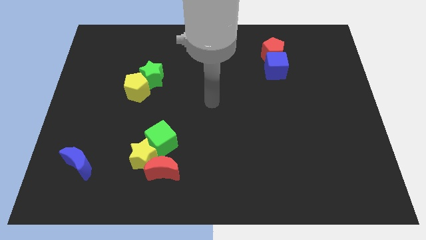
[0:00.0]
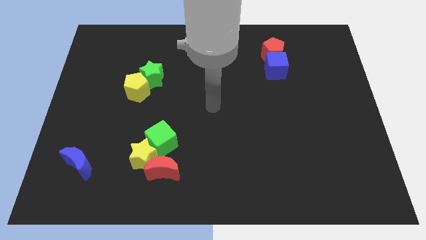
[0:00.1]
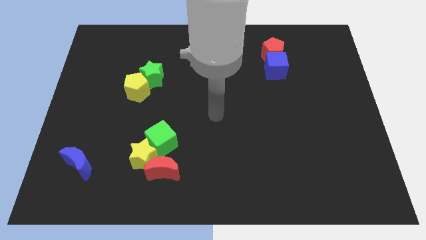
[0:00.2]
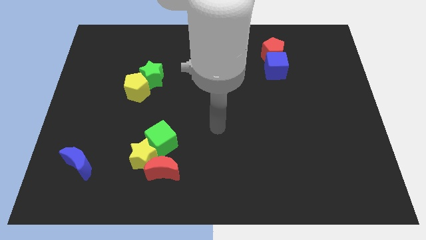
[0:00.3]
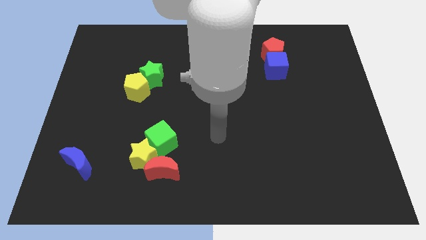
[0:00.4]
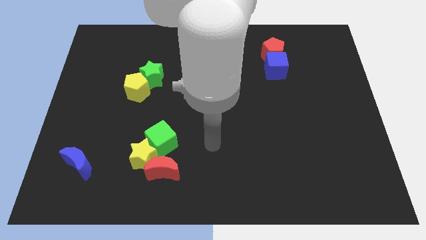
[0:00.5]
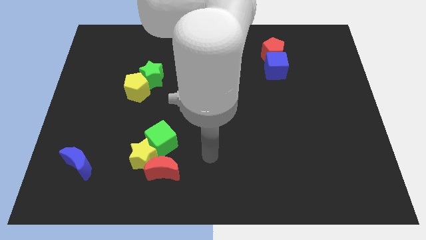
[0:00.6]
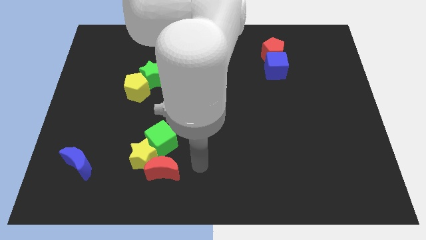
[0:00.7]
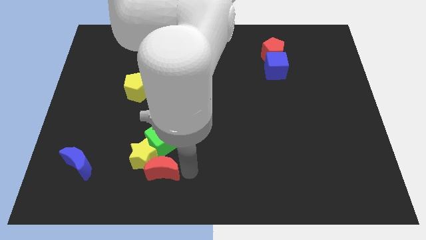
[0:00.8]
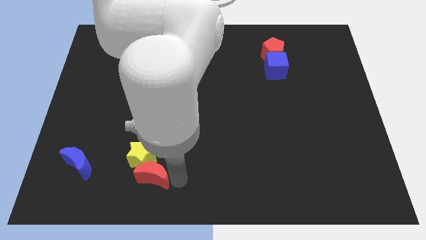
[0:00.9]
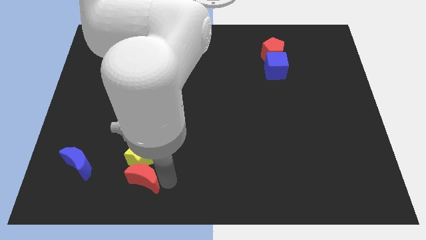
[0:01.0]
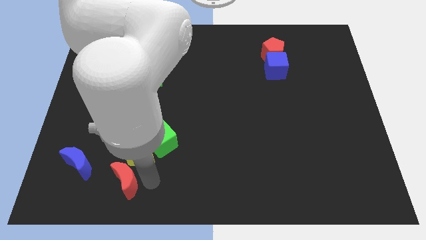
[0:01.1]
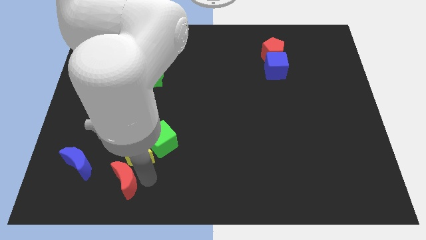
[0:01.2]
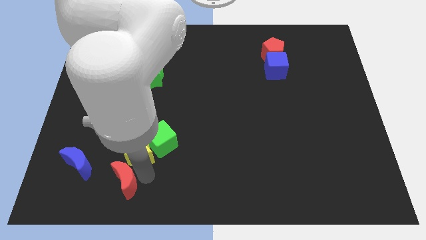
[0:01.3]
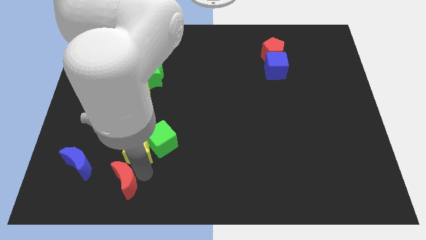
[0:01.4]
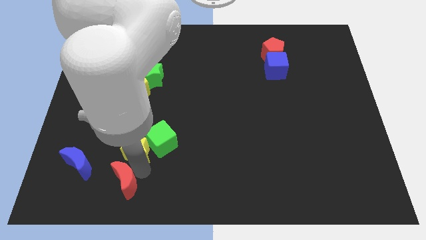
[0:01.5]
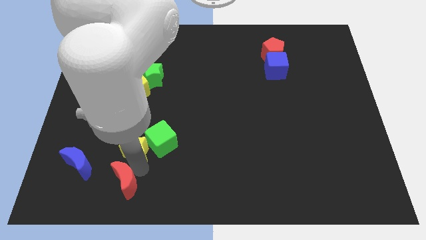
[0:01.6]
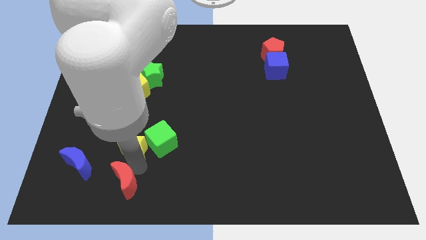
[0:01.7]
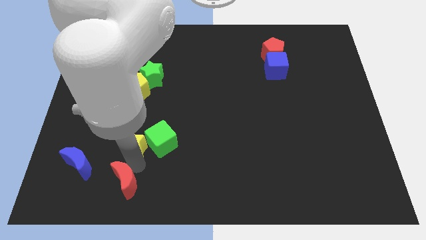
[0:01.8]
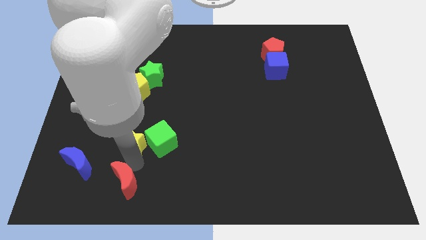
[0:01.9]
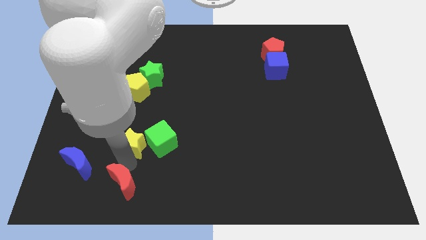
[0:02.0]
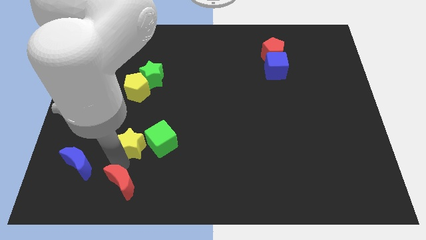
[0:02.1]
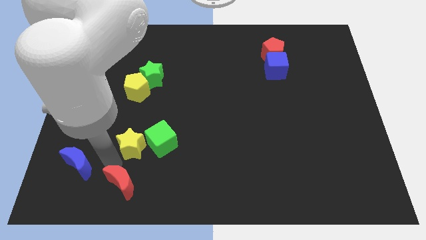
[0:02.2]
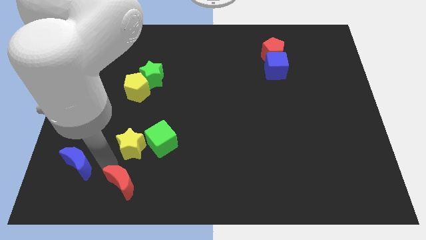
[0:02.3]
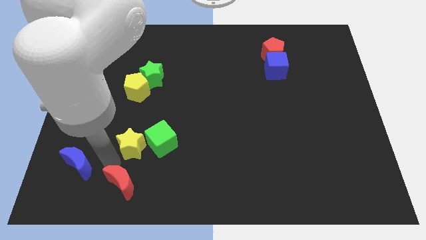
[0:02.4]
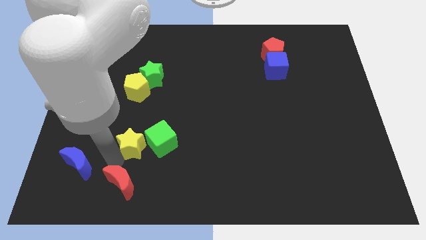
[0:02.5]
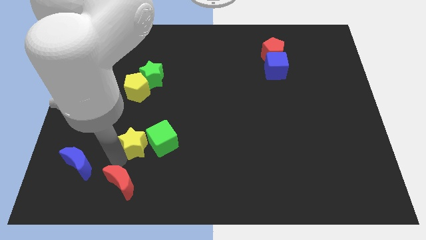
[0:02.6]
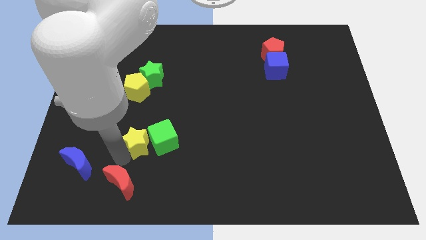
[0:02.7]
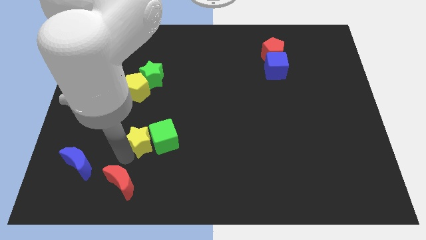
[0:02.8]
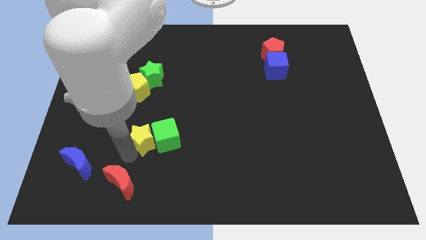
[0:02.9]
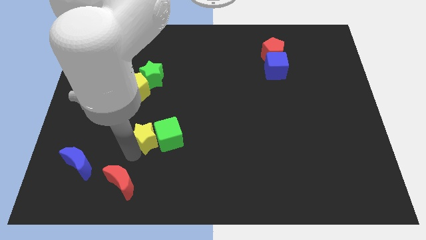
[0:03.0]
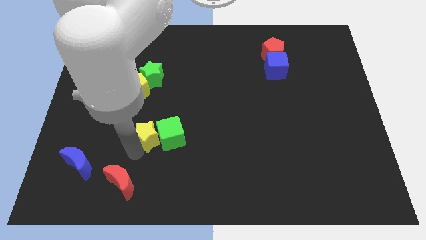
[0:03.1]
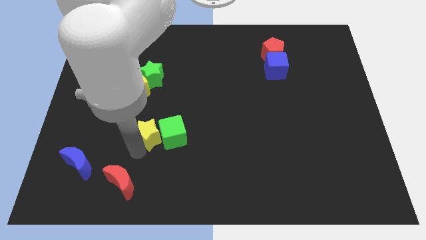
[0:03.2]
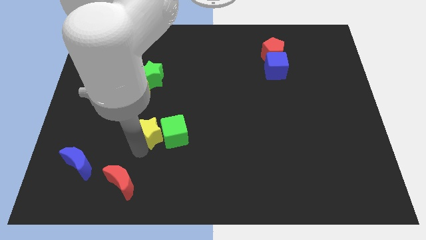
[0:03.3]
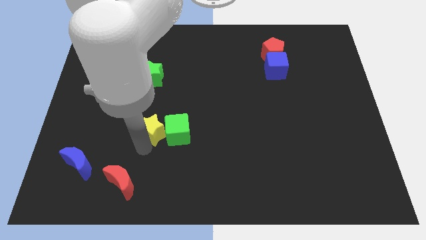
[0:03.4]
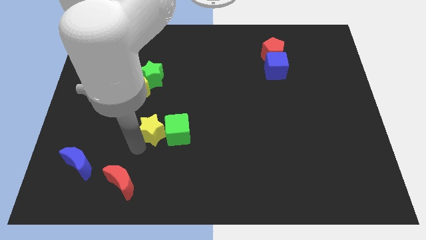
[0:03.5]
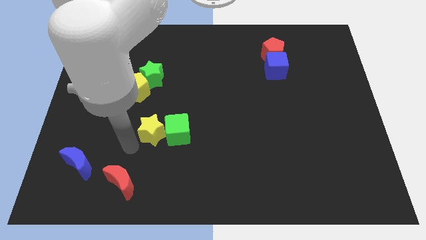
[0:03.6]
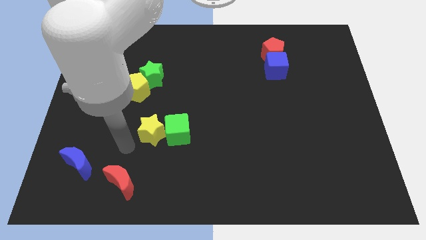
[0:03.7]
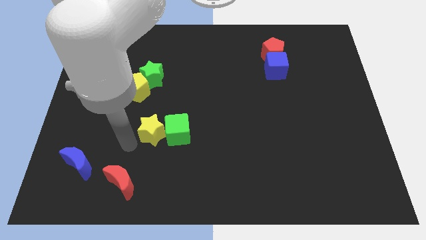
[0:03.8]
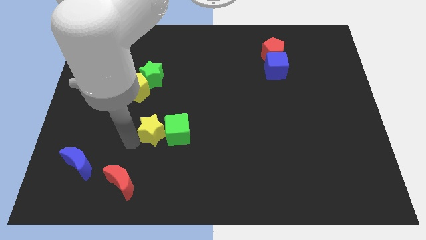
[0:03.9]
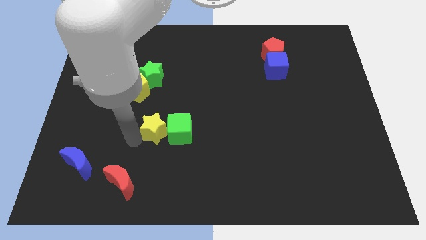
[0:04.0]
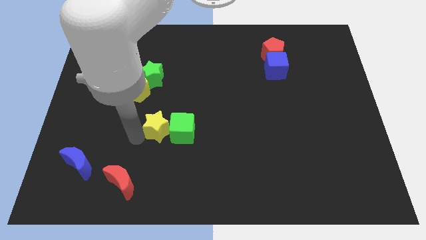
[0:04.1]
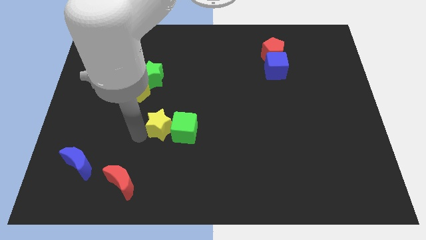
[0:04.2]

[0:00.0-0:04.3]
push the yellow star a bit up and to the right

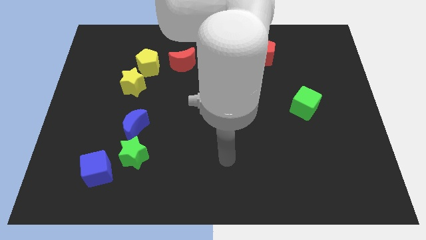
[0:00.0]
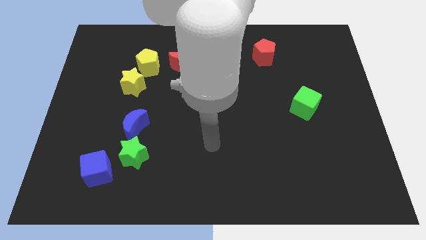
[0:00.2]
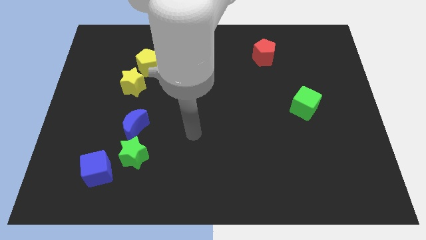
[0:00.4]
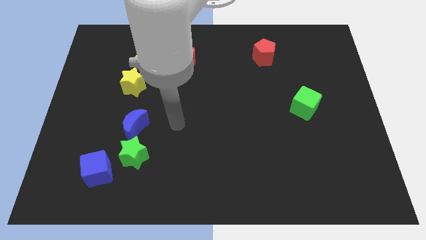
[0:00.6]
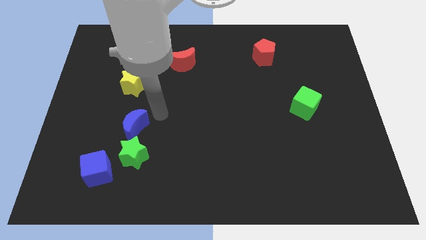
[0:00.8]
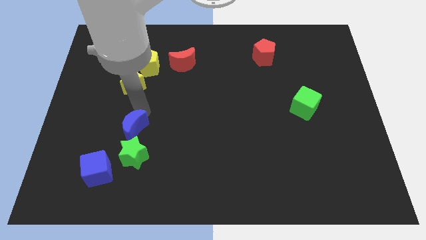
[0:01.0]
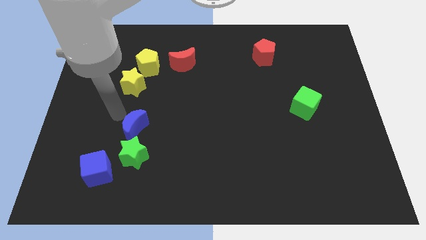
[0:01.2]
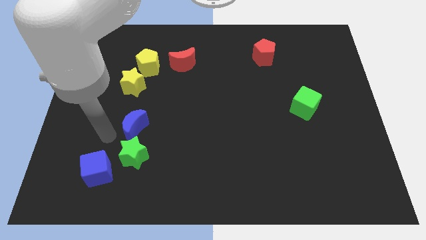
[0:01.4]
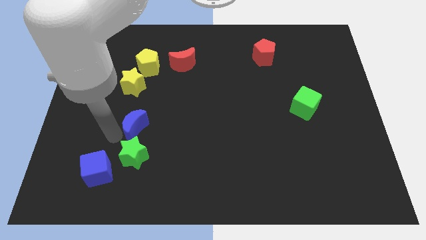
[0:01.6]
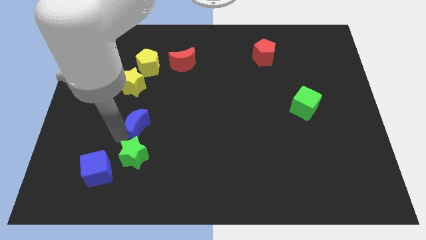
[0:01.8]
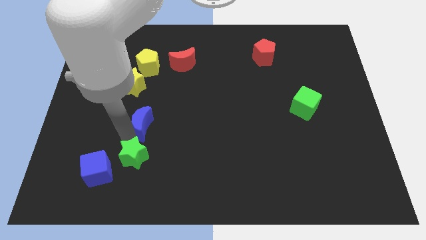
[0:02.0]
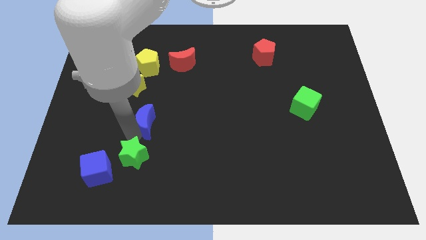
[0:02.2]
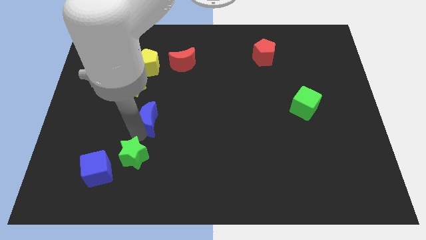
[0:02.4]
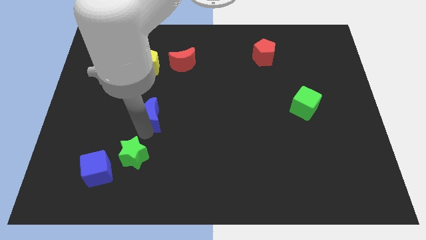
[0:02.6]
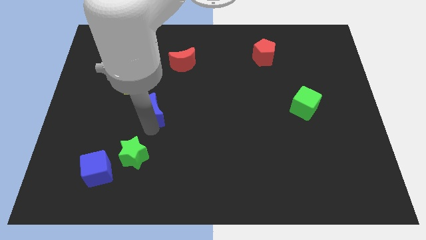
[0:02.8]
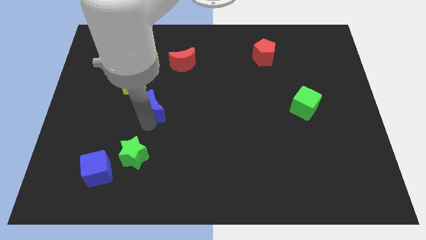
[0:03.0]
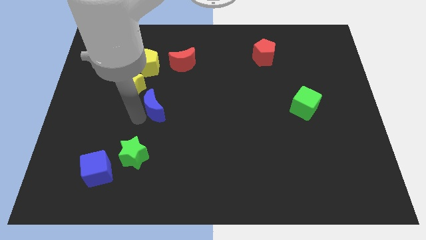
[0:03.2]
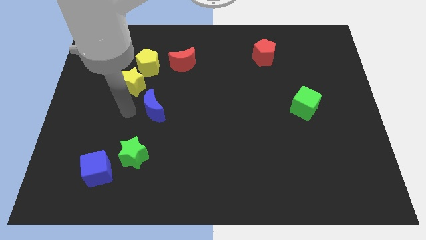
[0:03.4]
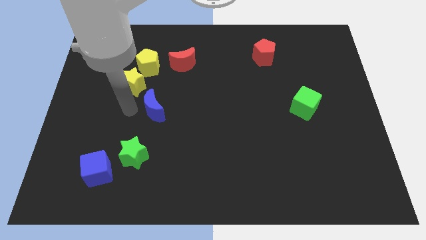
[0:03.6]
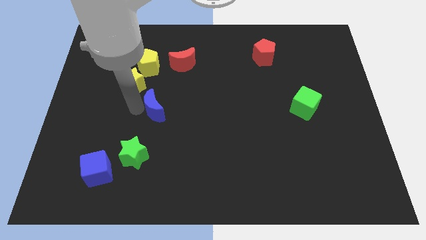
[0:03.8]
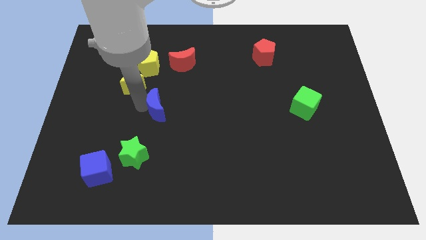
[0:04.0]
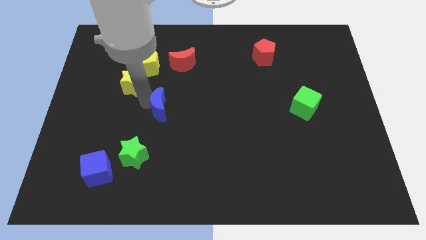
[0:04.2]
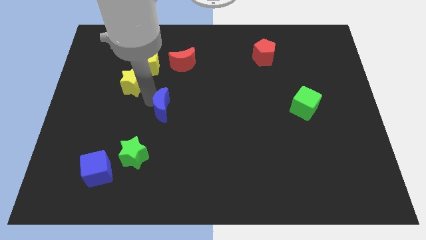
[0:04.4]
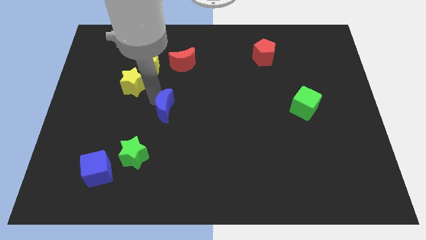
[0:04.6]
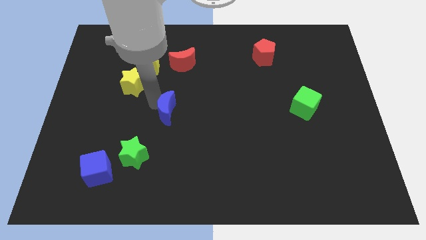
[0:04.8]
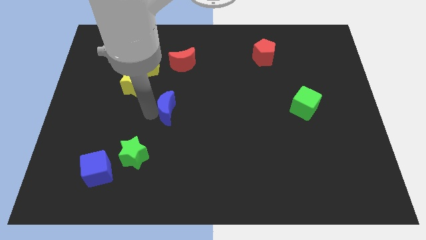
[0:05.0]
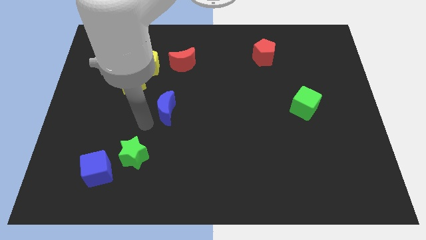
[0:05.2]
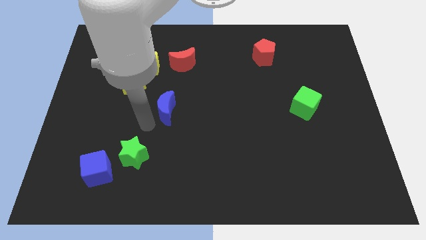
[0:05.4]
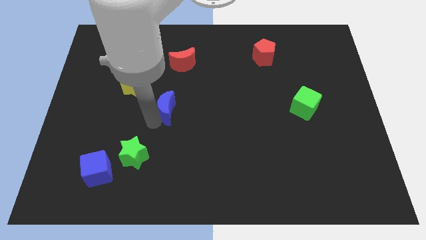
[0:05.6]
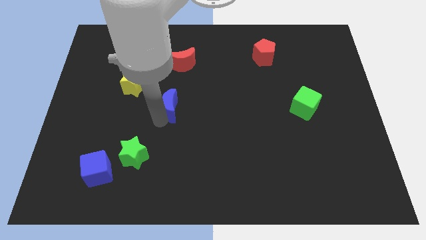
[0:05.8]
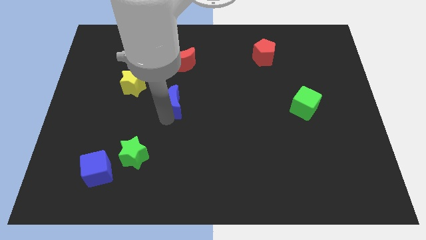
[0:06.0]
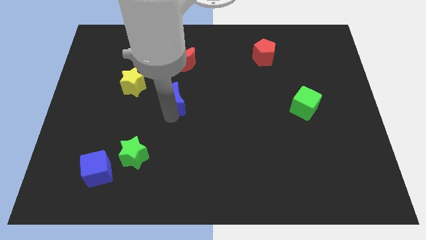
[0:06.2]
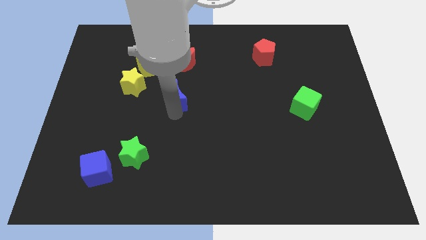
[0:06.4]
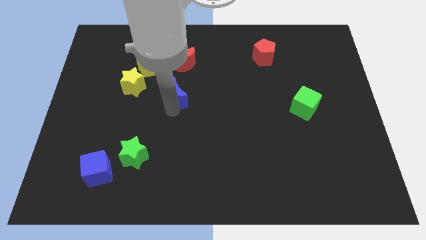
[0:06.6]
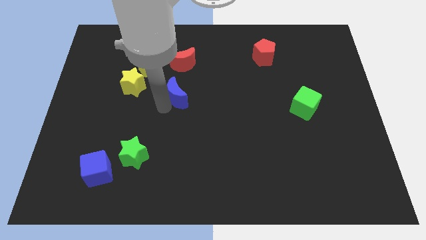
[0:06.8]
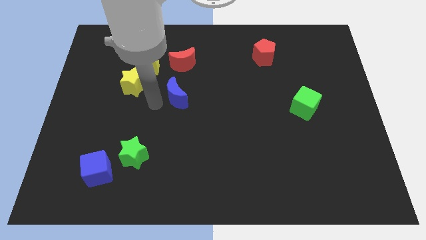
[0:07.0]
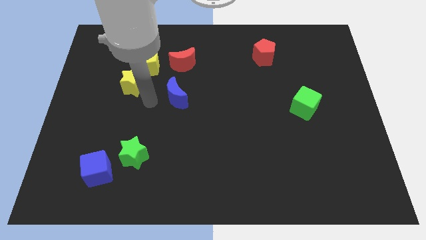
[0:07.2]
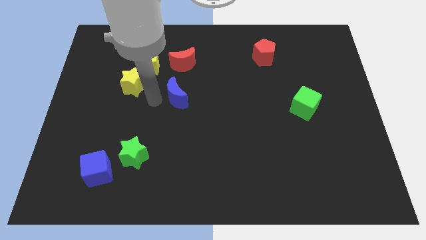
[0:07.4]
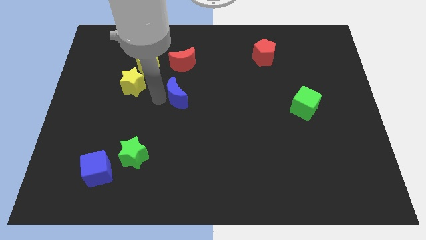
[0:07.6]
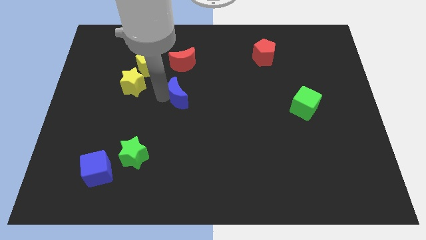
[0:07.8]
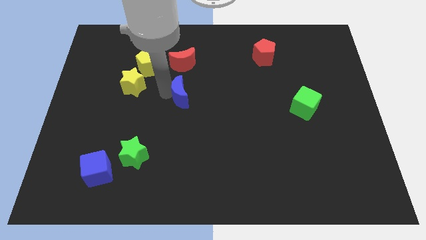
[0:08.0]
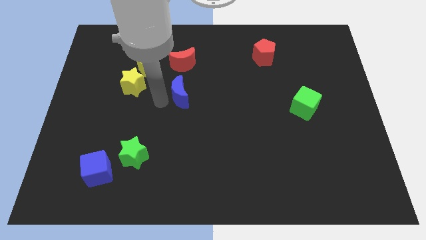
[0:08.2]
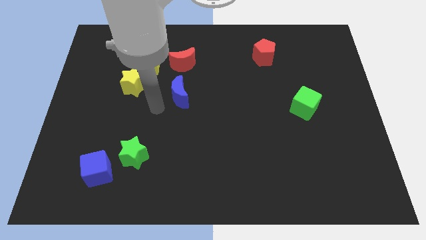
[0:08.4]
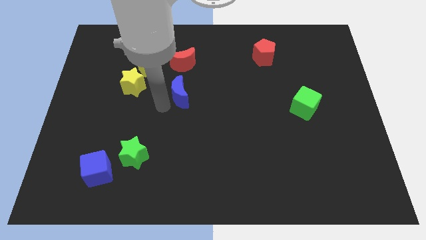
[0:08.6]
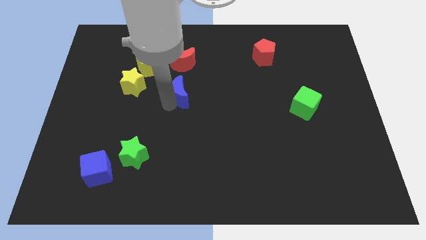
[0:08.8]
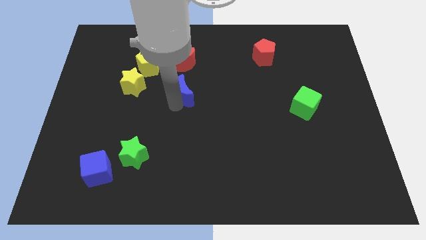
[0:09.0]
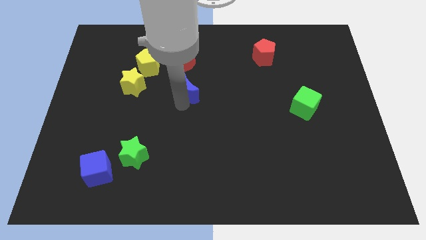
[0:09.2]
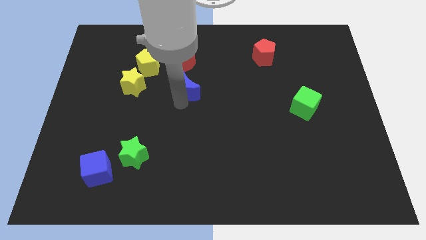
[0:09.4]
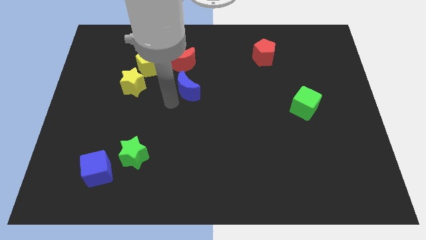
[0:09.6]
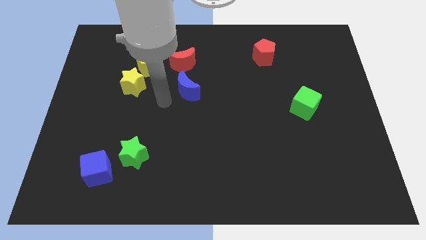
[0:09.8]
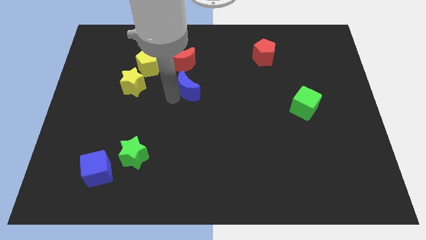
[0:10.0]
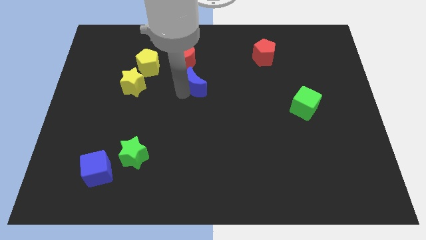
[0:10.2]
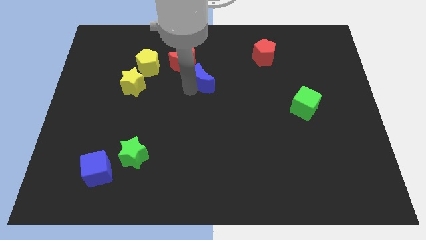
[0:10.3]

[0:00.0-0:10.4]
slide the blue moon upwards and then to the right
